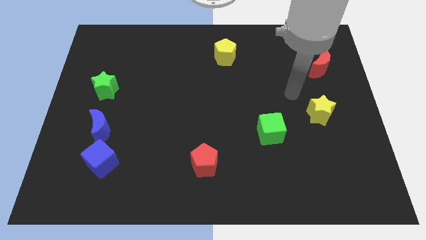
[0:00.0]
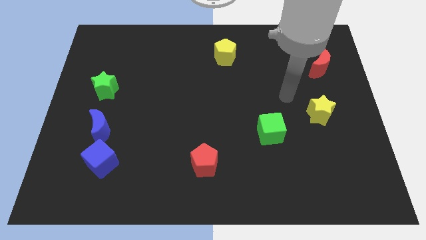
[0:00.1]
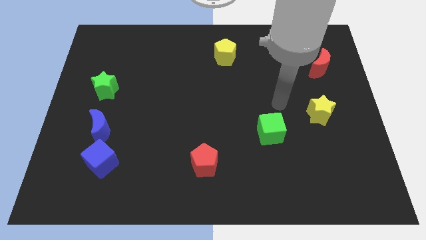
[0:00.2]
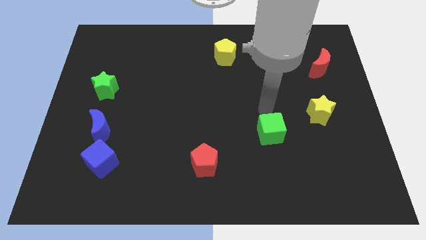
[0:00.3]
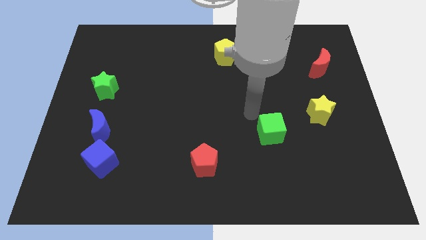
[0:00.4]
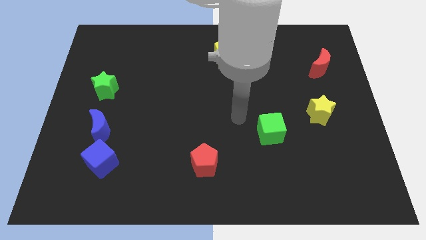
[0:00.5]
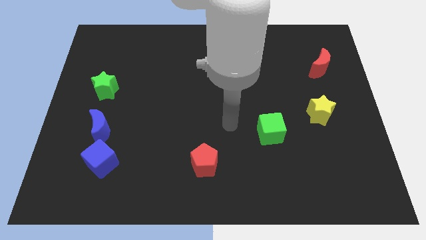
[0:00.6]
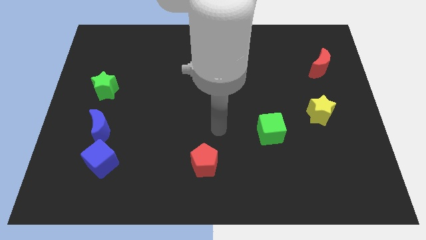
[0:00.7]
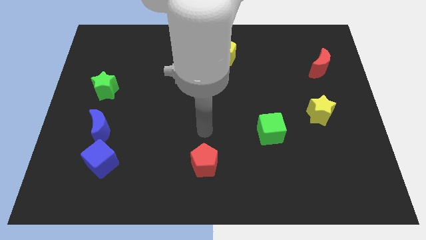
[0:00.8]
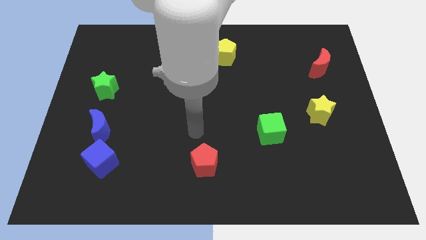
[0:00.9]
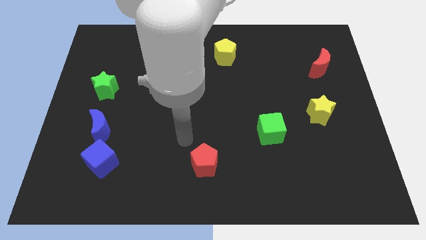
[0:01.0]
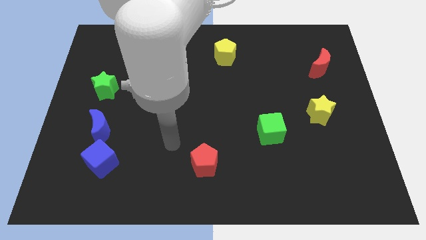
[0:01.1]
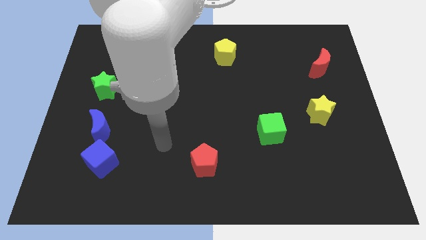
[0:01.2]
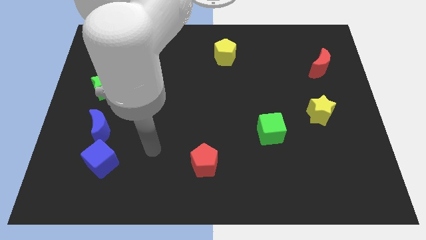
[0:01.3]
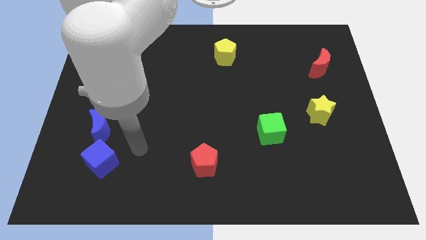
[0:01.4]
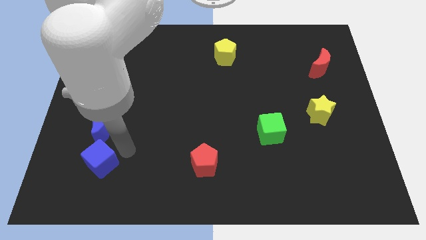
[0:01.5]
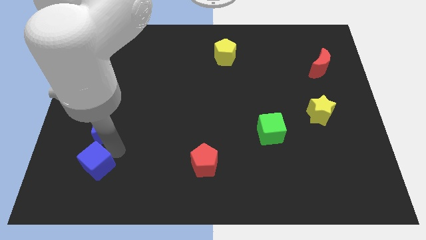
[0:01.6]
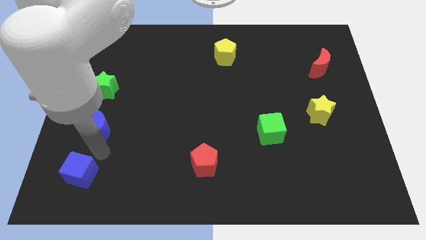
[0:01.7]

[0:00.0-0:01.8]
pull the blue moon apart from the blue cube

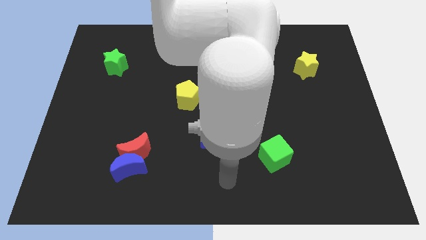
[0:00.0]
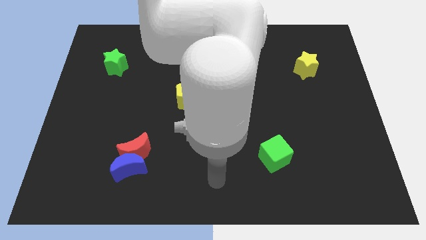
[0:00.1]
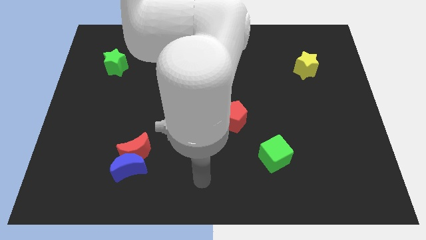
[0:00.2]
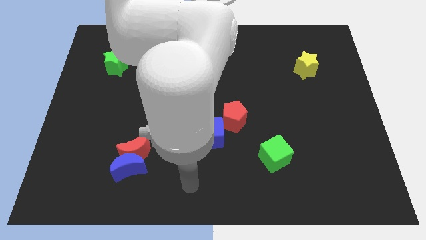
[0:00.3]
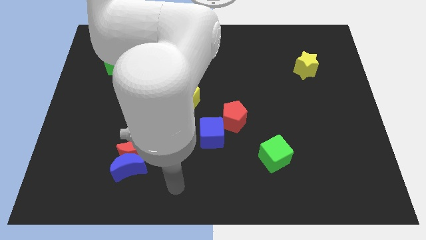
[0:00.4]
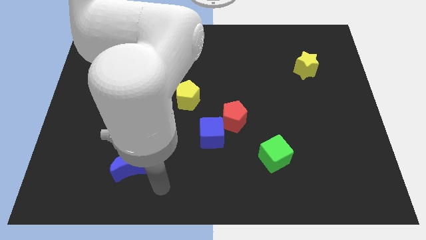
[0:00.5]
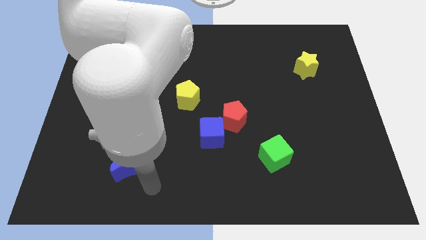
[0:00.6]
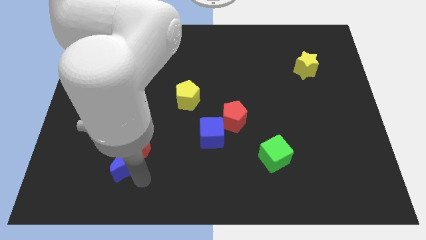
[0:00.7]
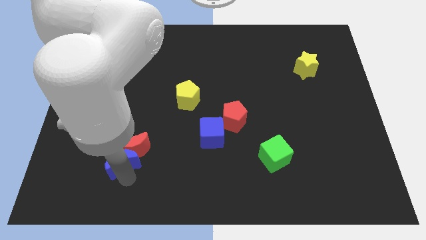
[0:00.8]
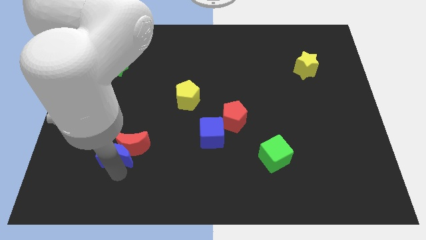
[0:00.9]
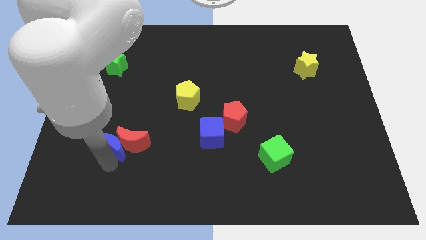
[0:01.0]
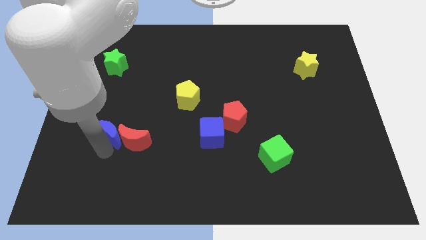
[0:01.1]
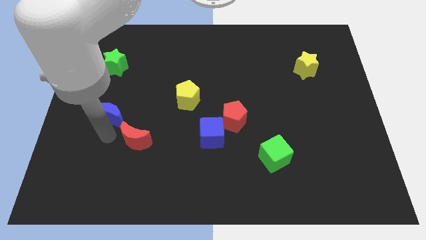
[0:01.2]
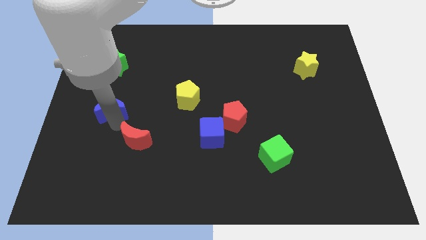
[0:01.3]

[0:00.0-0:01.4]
separate the red moon from the blue moon

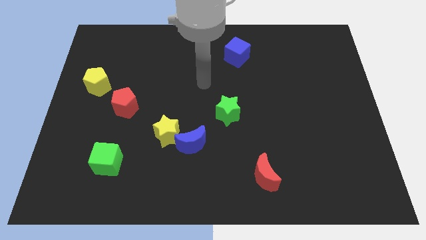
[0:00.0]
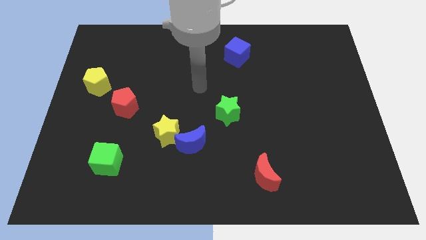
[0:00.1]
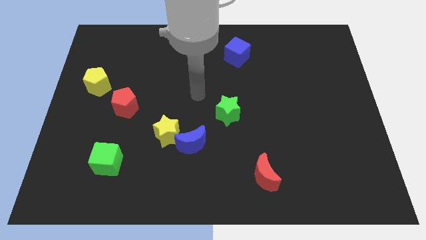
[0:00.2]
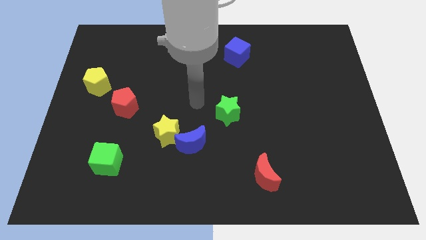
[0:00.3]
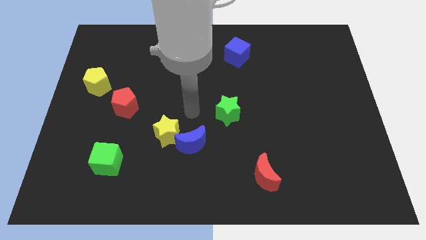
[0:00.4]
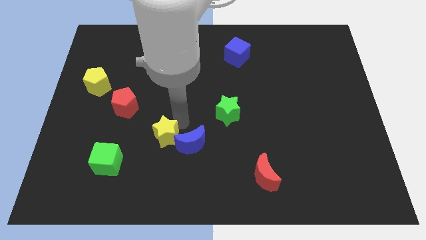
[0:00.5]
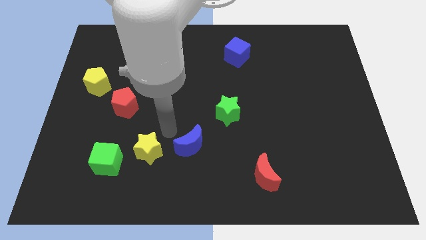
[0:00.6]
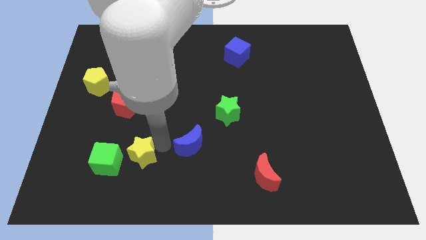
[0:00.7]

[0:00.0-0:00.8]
separate the blue moon from the yellow star

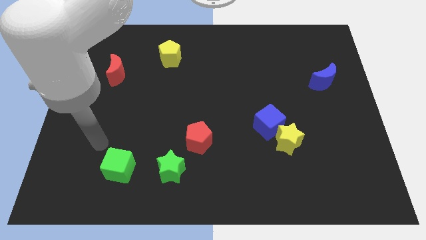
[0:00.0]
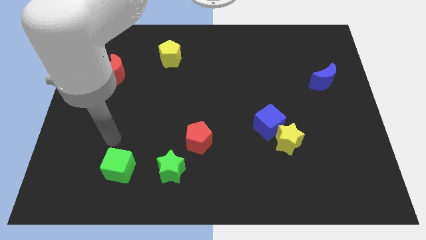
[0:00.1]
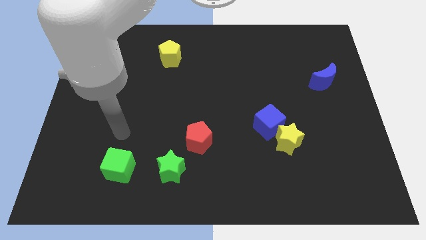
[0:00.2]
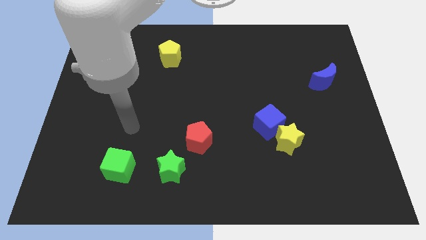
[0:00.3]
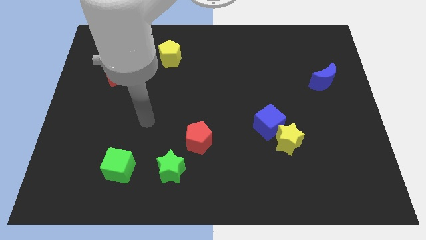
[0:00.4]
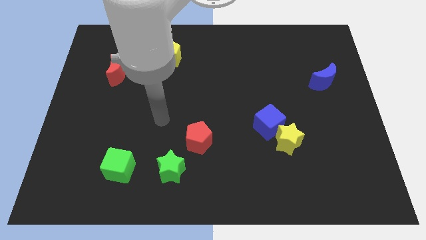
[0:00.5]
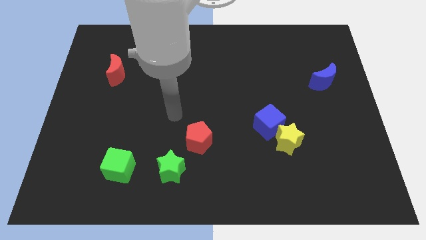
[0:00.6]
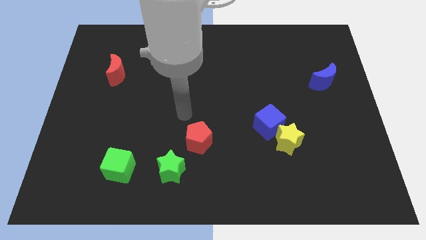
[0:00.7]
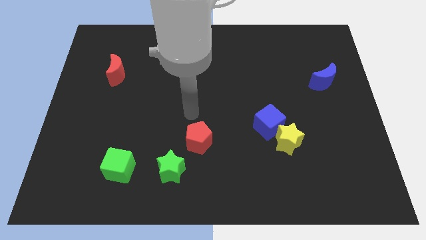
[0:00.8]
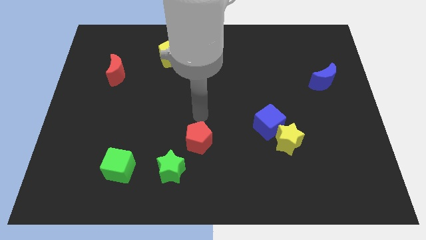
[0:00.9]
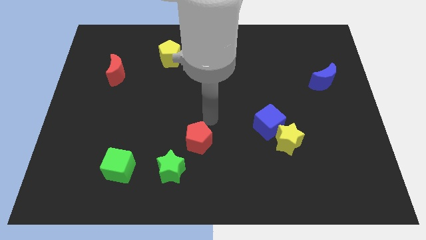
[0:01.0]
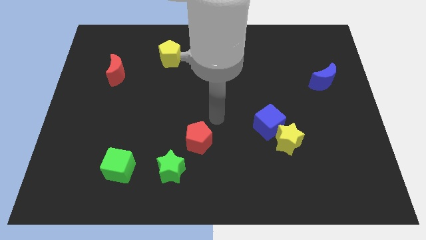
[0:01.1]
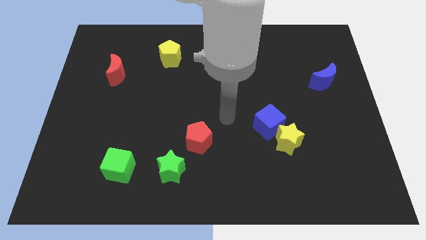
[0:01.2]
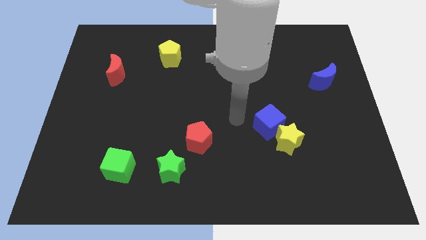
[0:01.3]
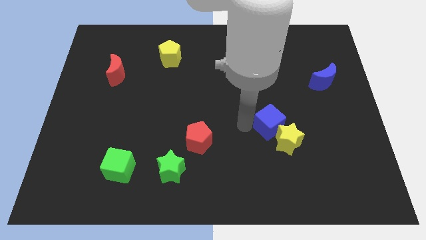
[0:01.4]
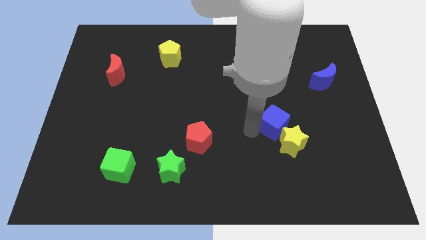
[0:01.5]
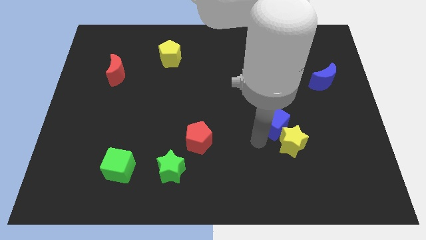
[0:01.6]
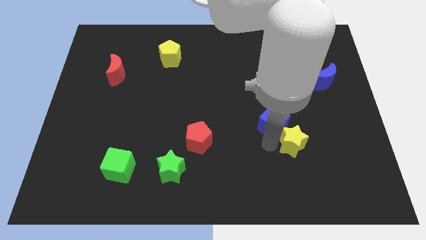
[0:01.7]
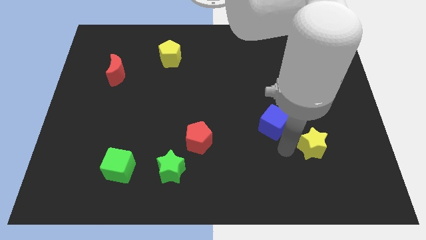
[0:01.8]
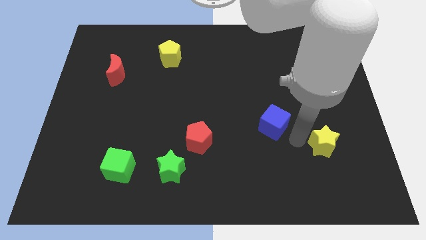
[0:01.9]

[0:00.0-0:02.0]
pull the blue cube apart from the yellow star

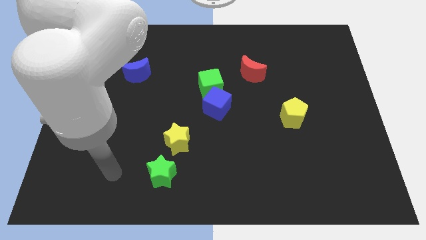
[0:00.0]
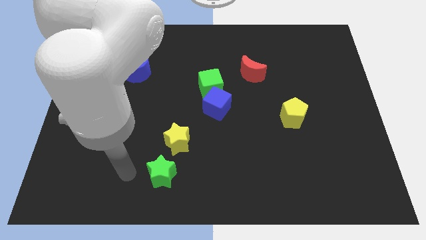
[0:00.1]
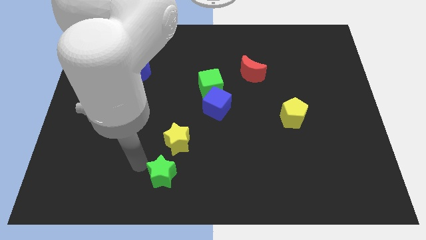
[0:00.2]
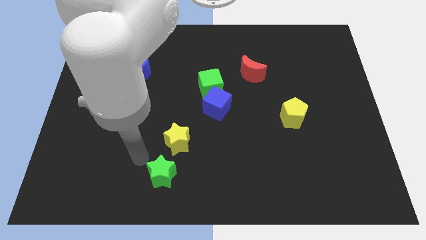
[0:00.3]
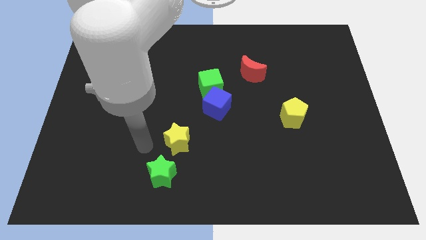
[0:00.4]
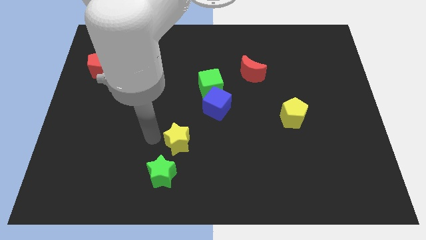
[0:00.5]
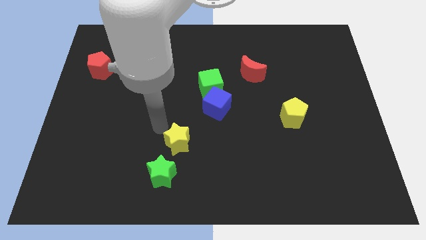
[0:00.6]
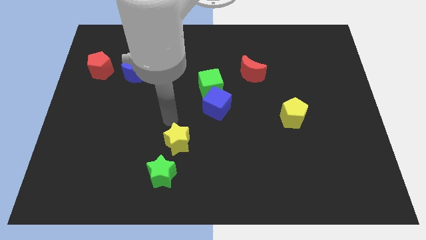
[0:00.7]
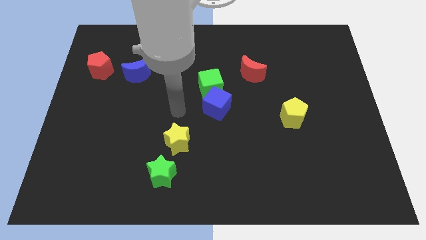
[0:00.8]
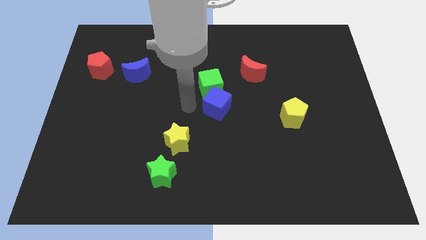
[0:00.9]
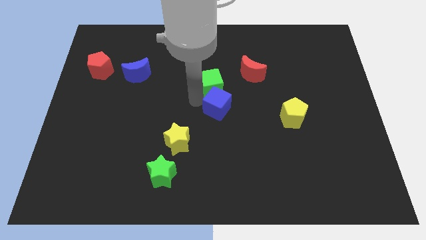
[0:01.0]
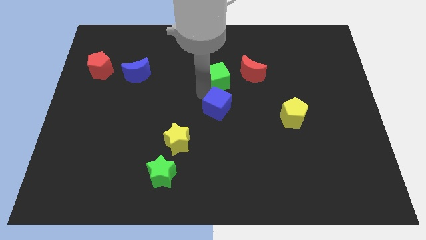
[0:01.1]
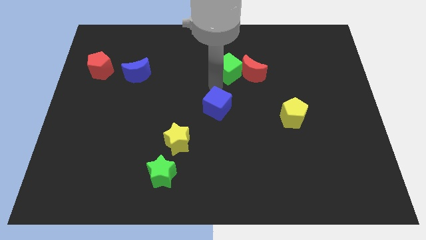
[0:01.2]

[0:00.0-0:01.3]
separate the blue cube from the green cube

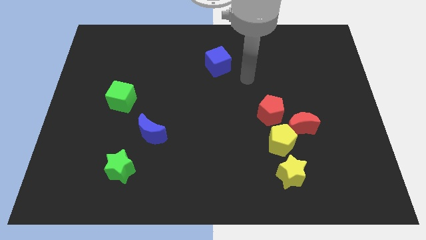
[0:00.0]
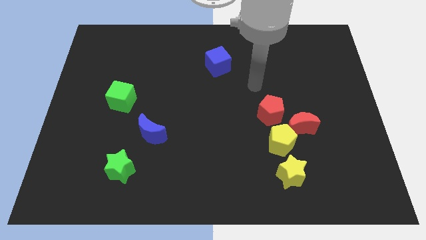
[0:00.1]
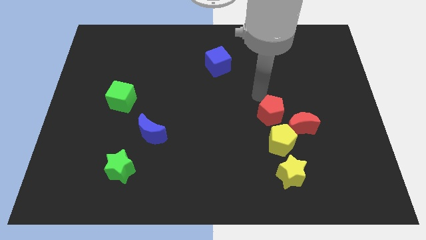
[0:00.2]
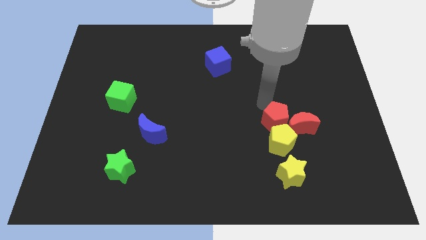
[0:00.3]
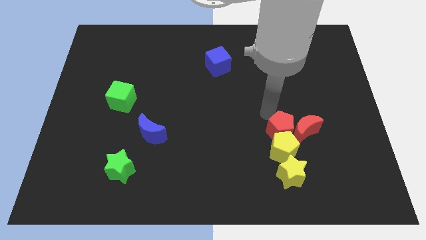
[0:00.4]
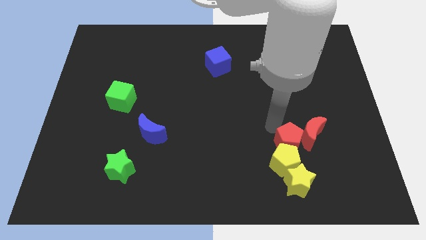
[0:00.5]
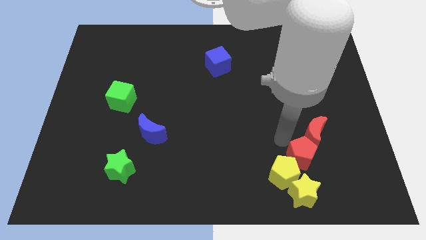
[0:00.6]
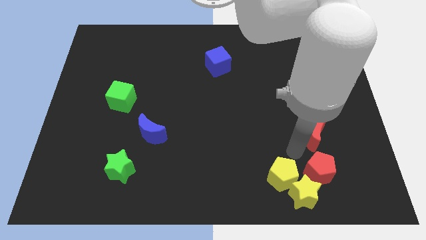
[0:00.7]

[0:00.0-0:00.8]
move the red moon away from the yellow pentagon and red pentagon

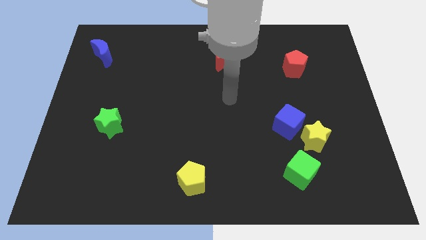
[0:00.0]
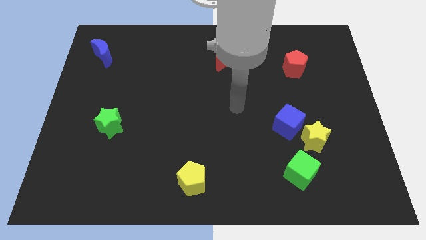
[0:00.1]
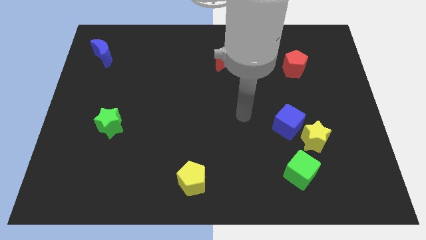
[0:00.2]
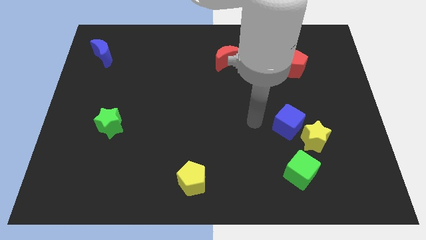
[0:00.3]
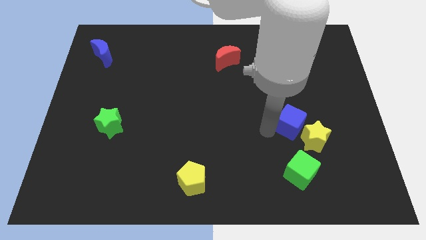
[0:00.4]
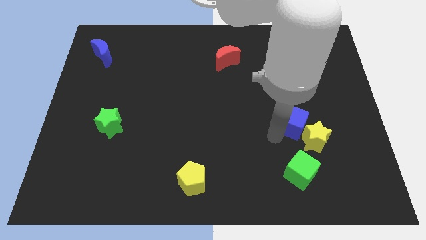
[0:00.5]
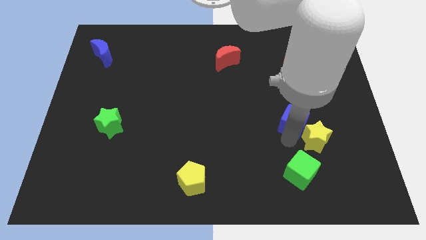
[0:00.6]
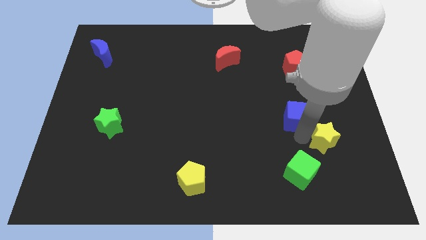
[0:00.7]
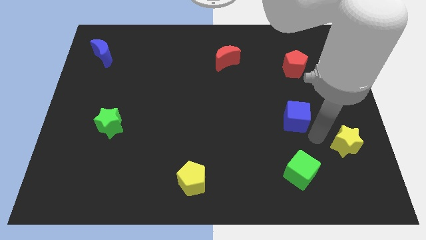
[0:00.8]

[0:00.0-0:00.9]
separate the blue cube from the yellow star

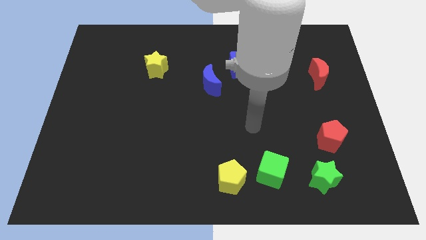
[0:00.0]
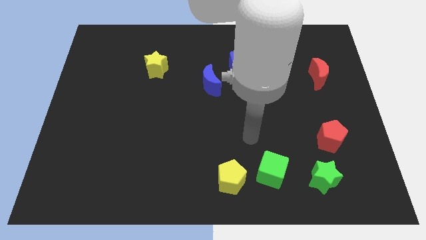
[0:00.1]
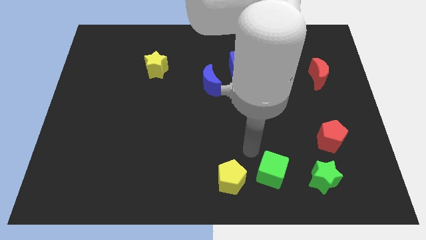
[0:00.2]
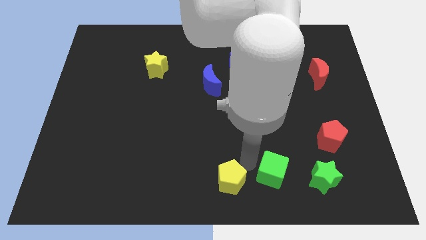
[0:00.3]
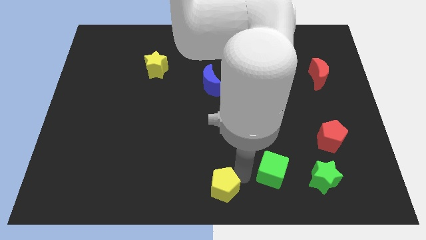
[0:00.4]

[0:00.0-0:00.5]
separate the green cube from the yellow pentagon

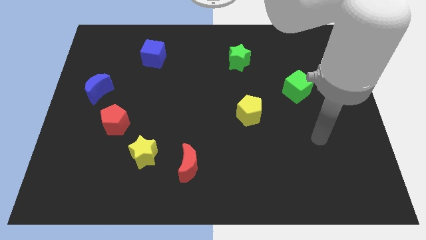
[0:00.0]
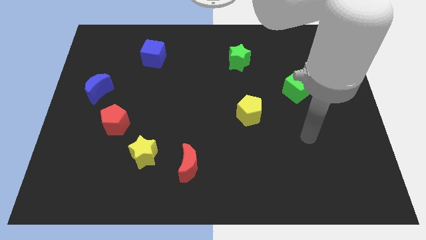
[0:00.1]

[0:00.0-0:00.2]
separate the red moon from the yellow star
